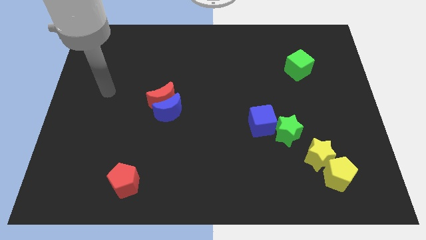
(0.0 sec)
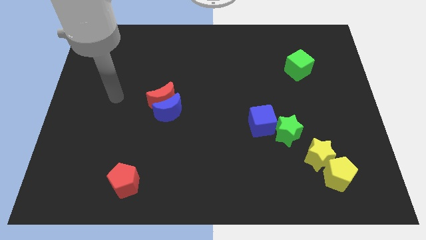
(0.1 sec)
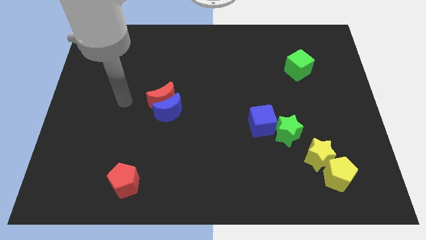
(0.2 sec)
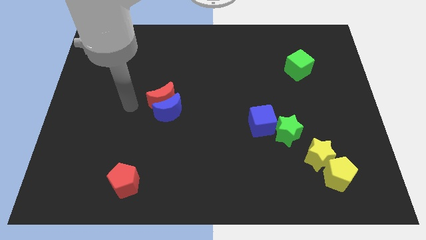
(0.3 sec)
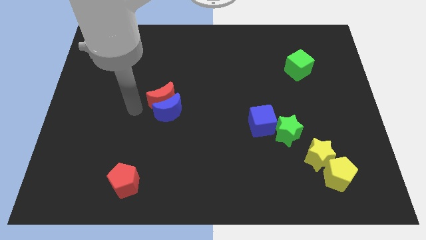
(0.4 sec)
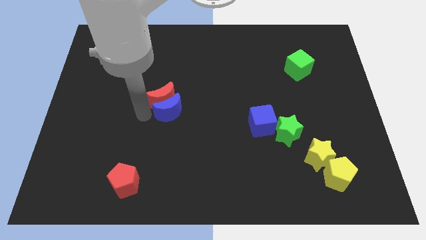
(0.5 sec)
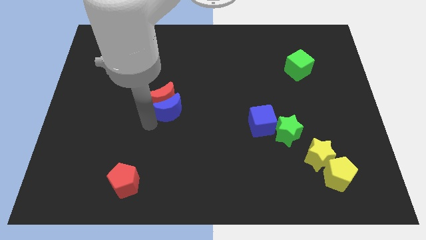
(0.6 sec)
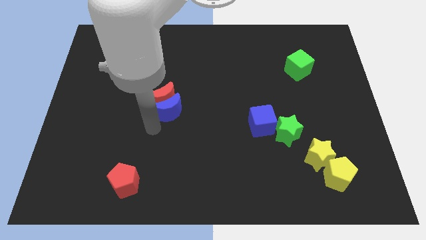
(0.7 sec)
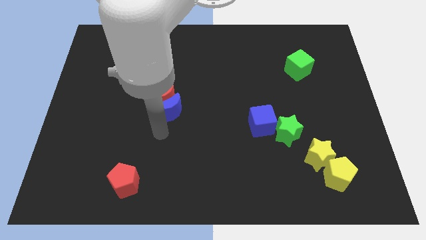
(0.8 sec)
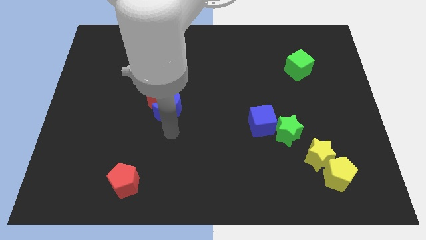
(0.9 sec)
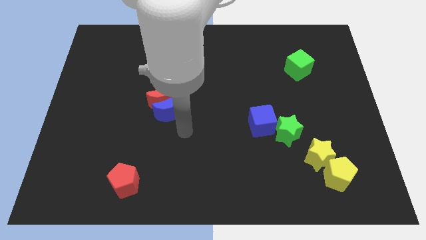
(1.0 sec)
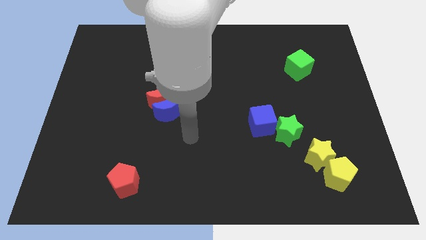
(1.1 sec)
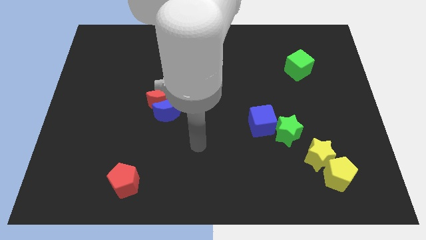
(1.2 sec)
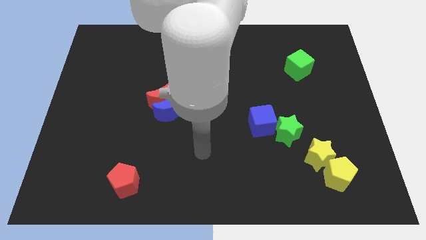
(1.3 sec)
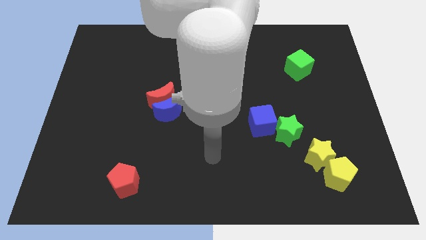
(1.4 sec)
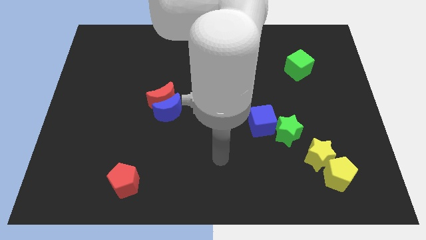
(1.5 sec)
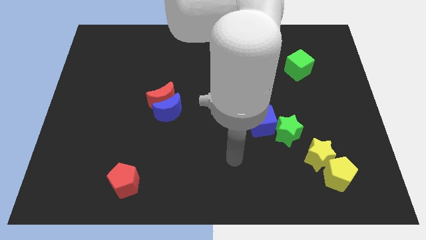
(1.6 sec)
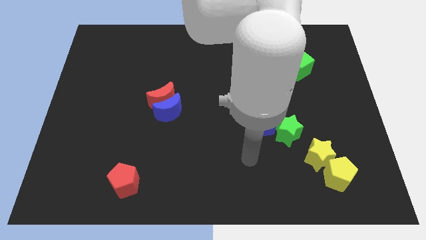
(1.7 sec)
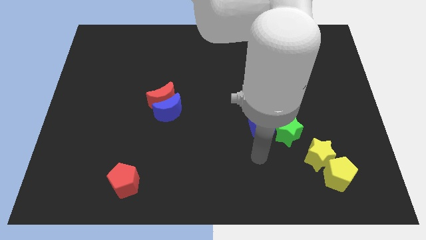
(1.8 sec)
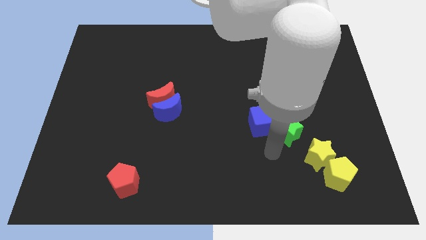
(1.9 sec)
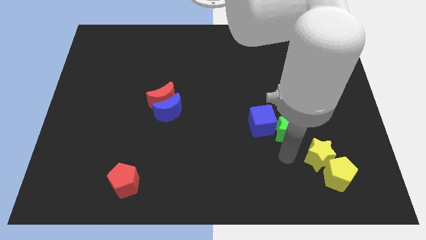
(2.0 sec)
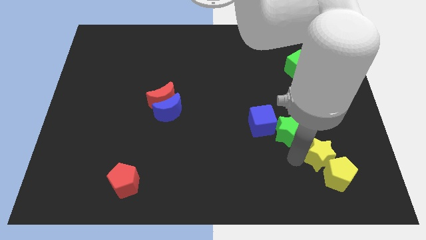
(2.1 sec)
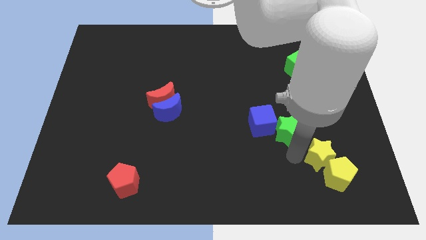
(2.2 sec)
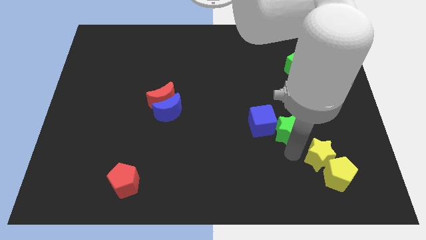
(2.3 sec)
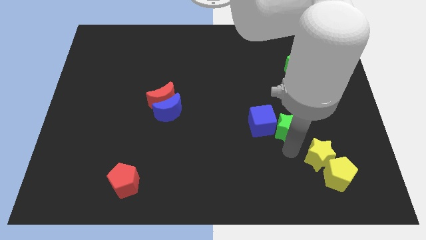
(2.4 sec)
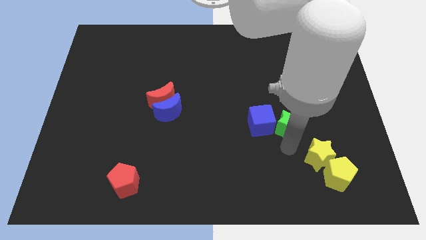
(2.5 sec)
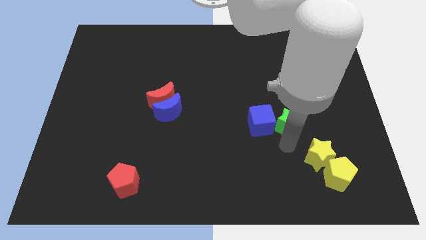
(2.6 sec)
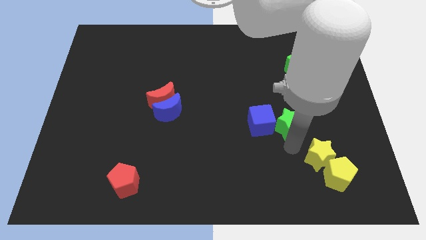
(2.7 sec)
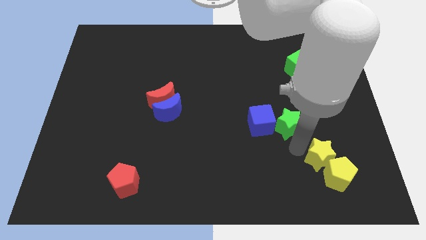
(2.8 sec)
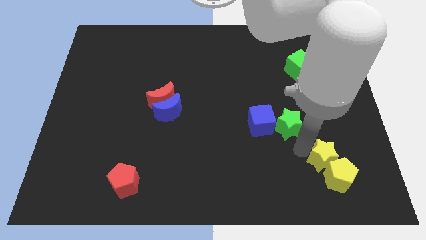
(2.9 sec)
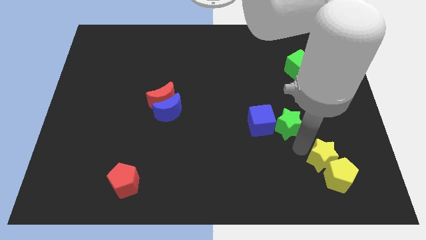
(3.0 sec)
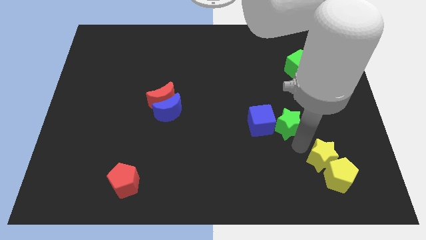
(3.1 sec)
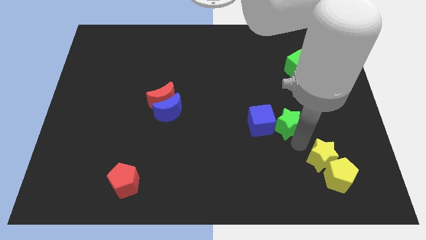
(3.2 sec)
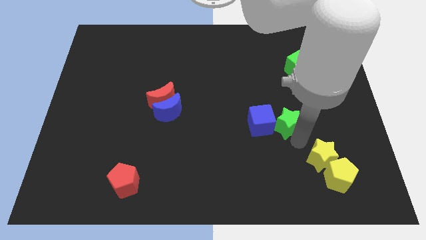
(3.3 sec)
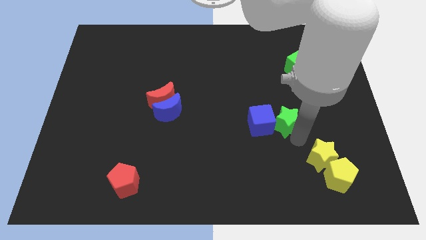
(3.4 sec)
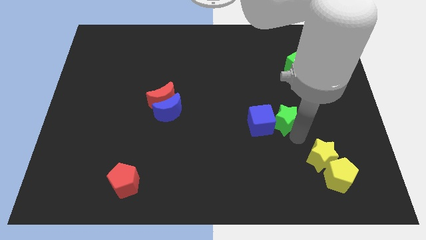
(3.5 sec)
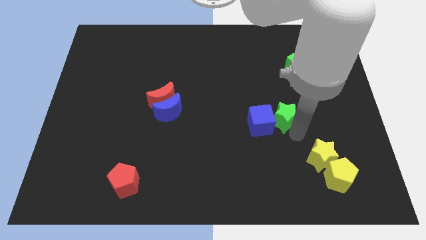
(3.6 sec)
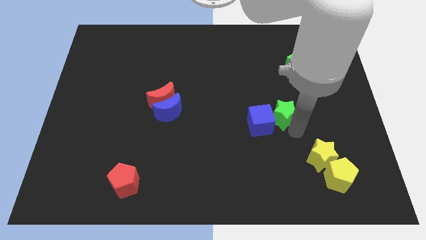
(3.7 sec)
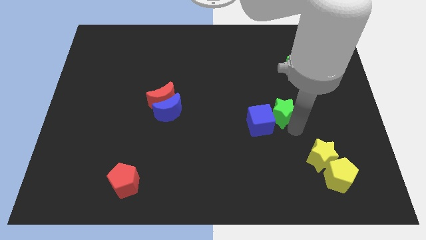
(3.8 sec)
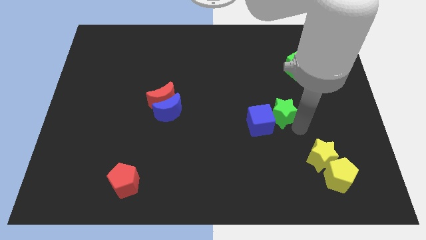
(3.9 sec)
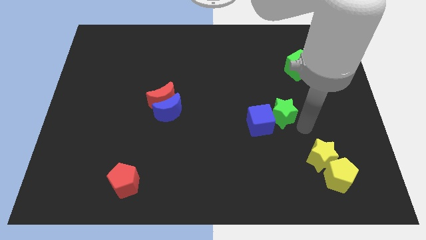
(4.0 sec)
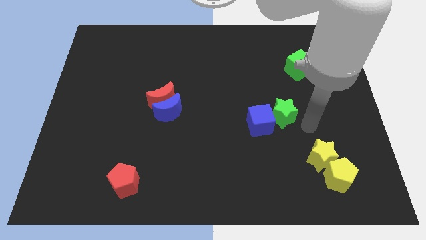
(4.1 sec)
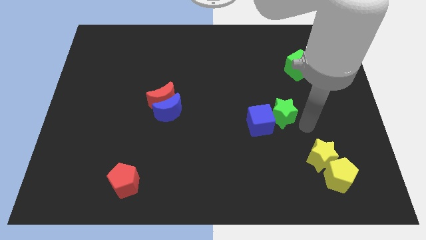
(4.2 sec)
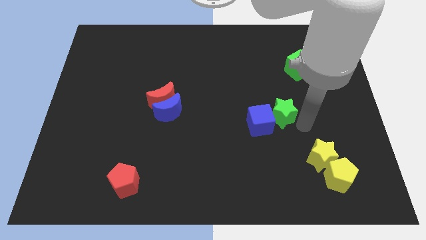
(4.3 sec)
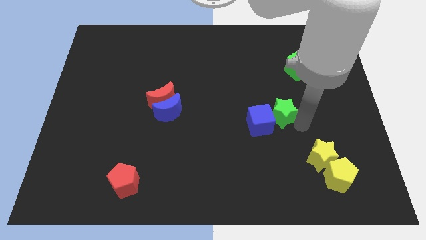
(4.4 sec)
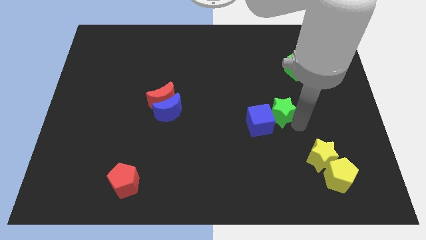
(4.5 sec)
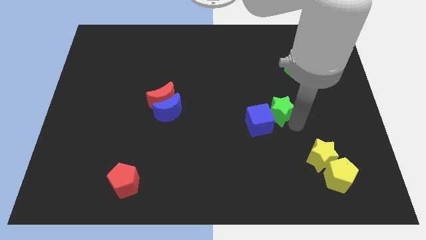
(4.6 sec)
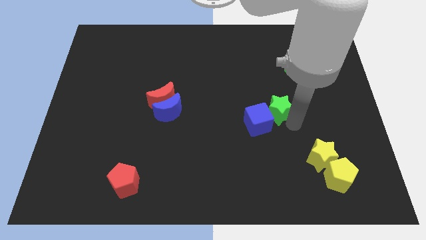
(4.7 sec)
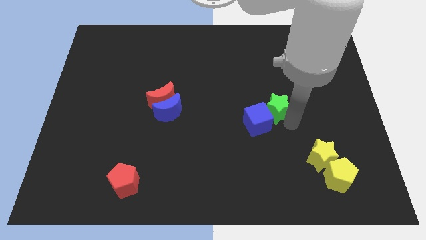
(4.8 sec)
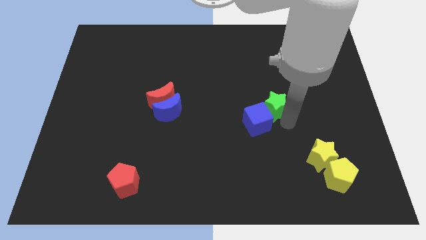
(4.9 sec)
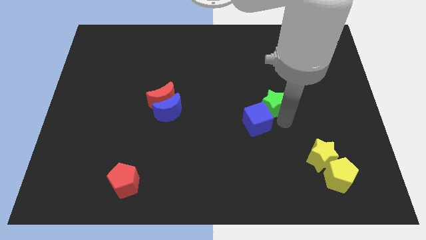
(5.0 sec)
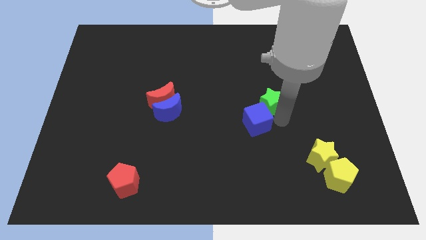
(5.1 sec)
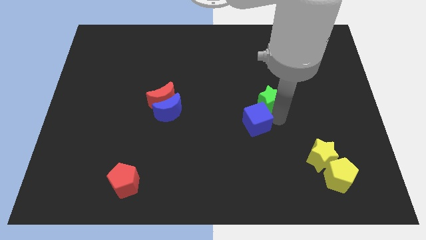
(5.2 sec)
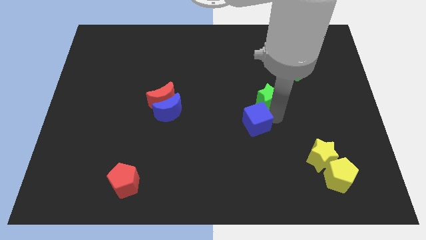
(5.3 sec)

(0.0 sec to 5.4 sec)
move the green star to the middle of the board

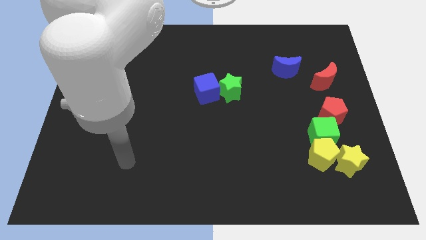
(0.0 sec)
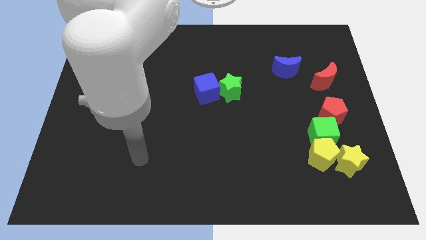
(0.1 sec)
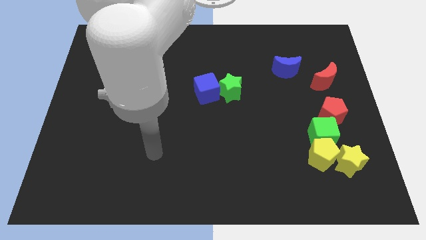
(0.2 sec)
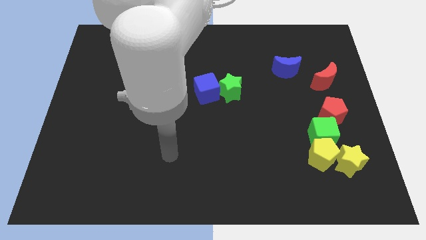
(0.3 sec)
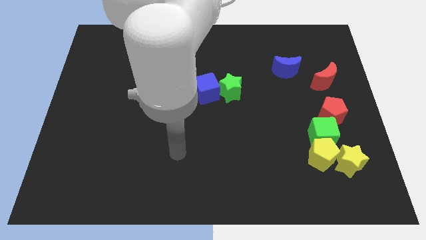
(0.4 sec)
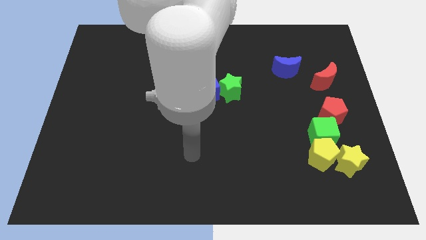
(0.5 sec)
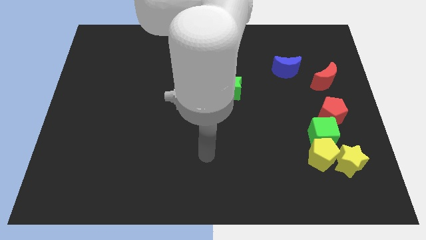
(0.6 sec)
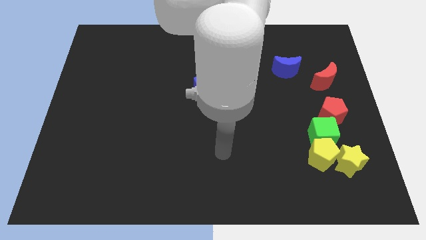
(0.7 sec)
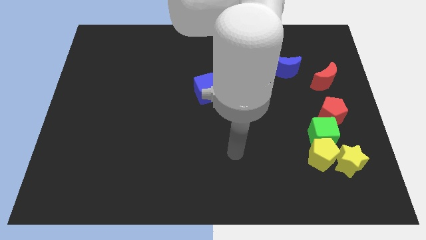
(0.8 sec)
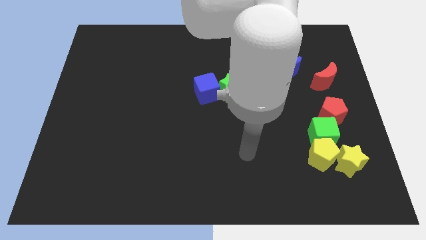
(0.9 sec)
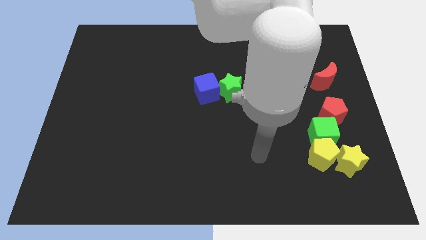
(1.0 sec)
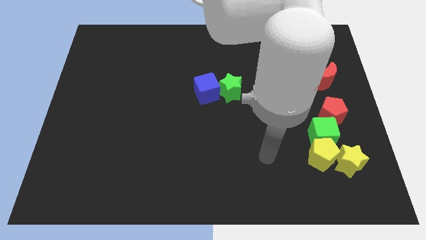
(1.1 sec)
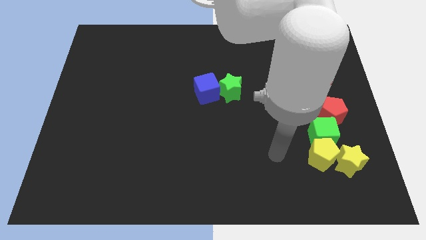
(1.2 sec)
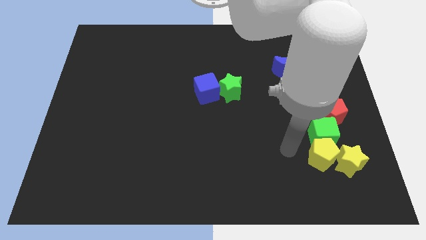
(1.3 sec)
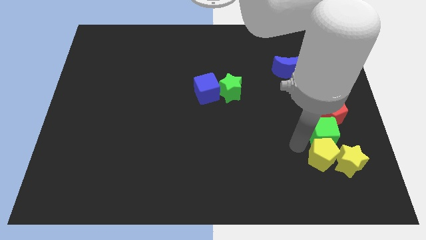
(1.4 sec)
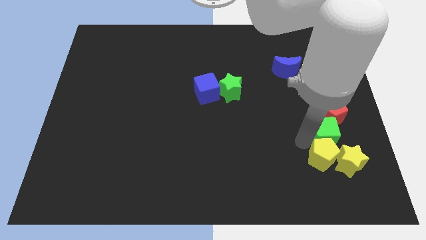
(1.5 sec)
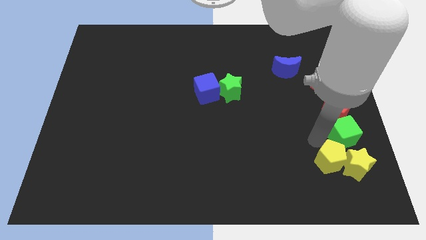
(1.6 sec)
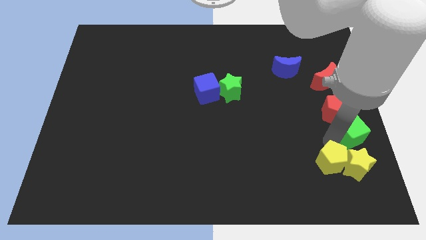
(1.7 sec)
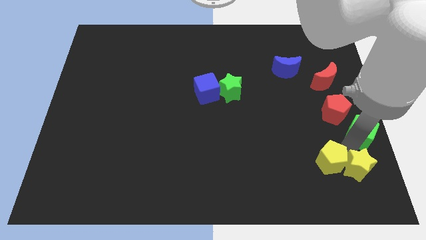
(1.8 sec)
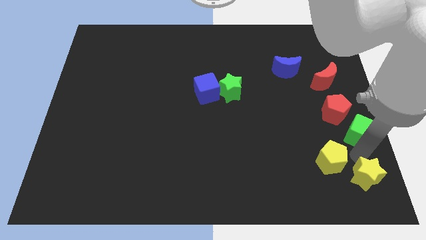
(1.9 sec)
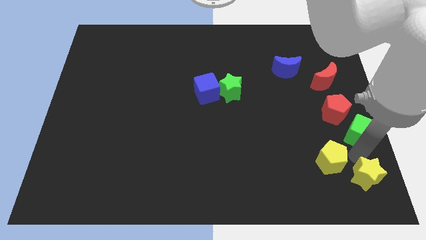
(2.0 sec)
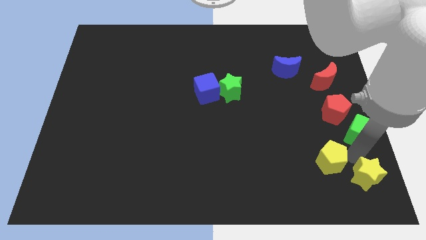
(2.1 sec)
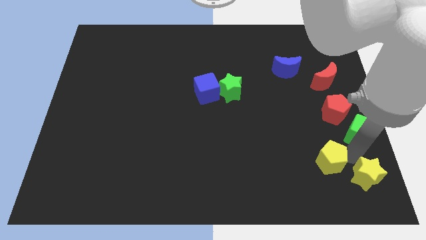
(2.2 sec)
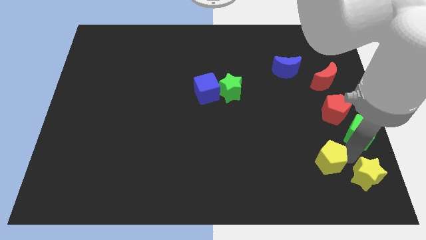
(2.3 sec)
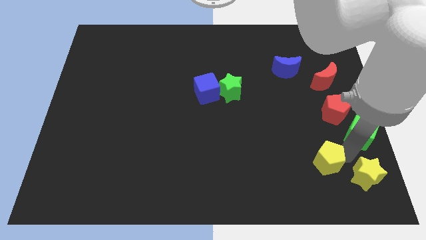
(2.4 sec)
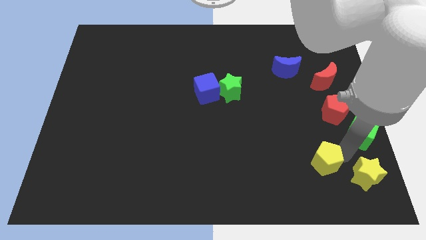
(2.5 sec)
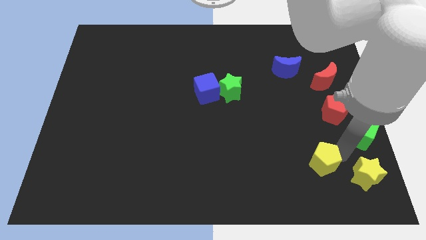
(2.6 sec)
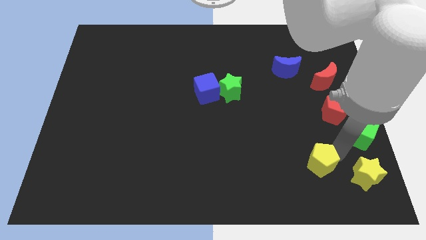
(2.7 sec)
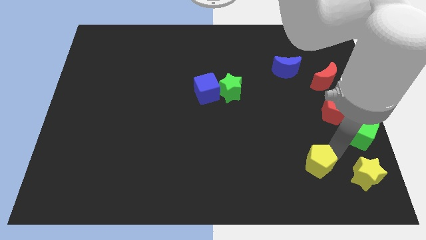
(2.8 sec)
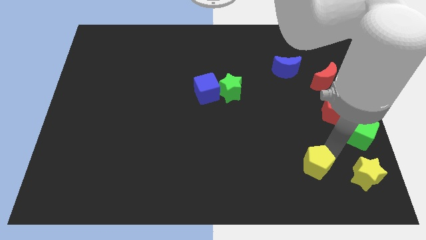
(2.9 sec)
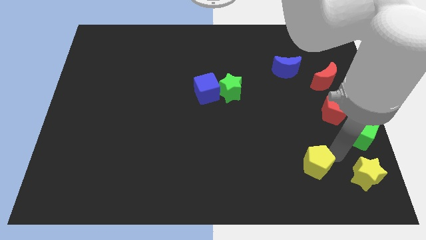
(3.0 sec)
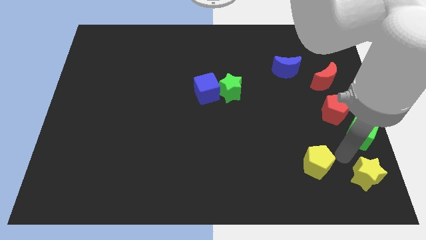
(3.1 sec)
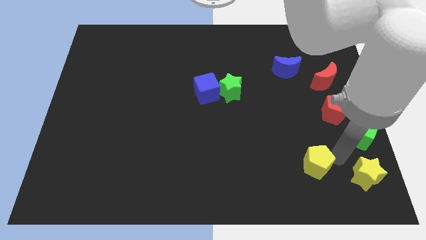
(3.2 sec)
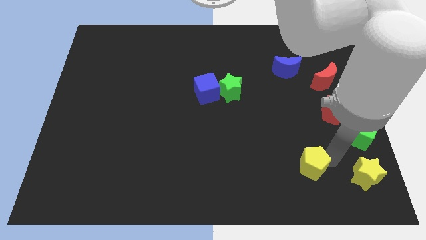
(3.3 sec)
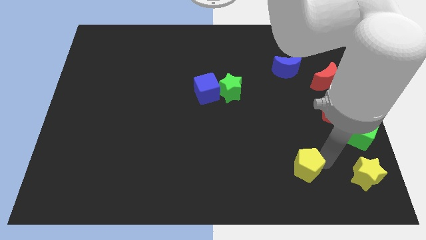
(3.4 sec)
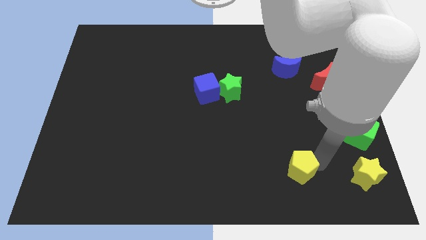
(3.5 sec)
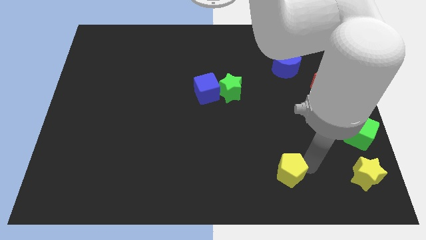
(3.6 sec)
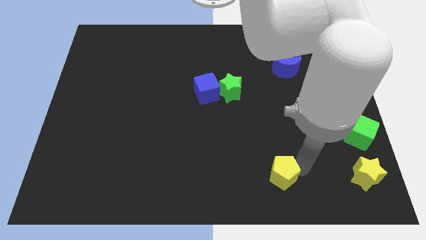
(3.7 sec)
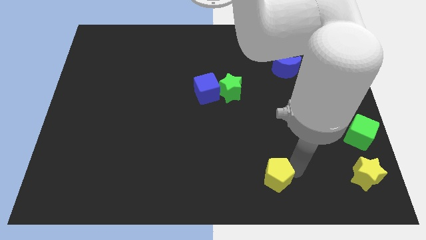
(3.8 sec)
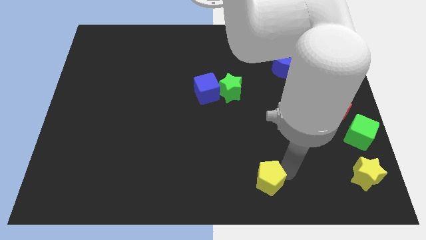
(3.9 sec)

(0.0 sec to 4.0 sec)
put the yellow pentagon to the bottom side
